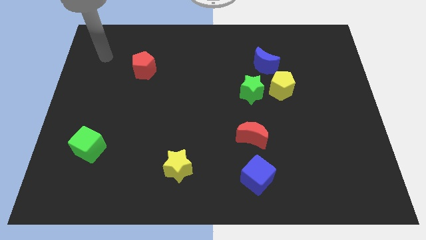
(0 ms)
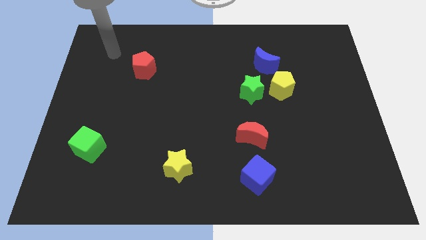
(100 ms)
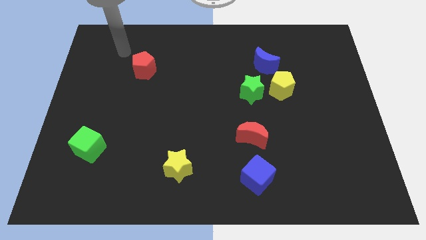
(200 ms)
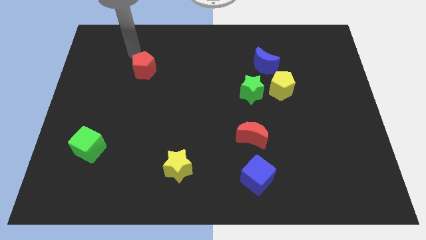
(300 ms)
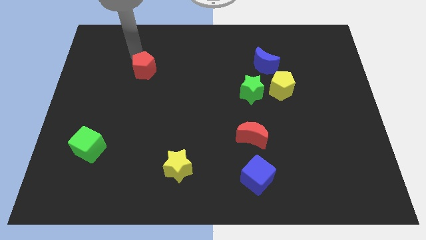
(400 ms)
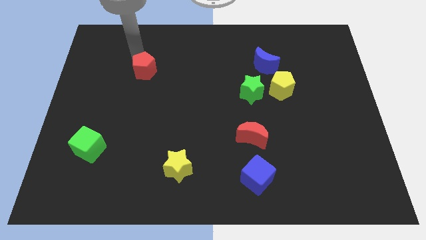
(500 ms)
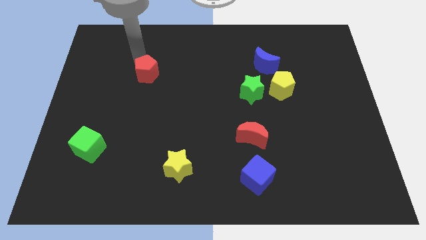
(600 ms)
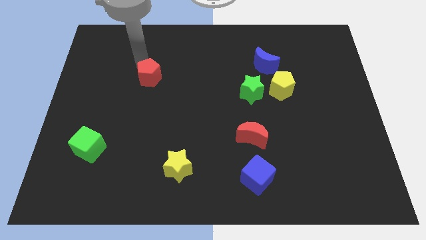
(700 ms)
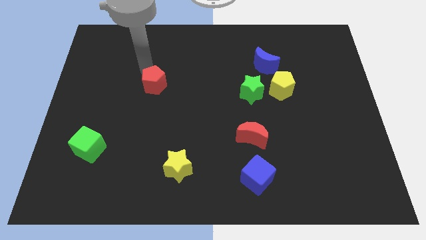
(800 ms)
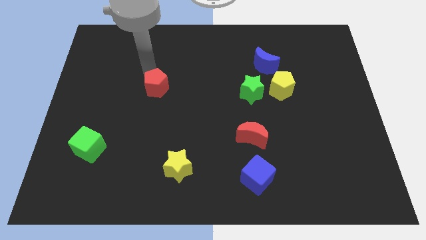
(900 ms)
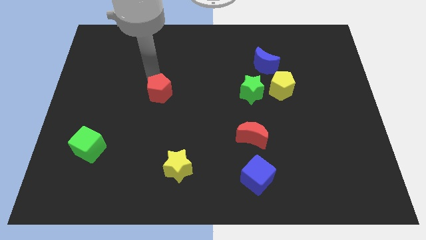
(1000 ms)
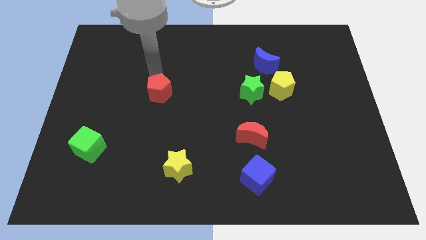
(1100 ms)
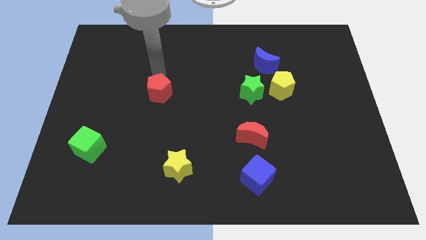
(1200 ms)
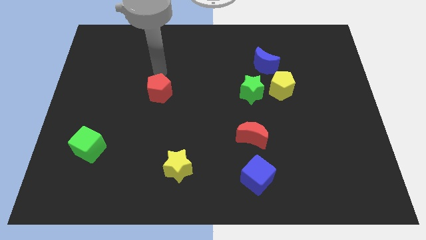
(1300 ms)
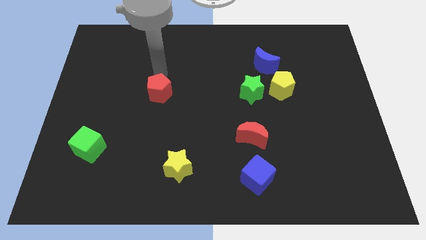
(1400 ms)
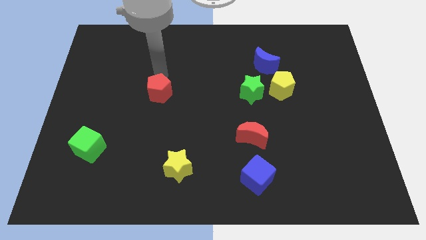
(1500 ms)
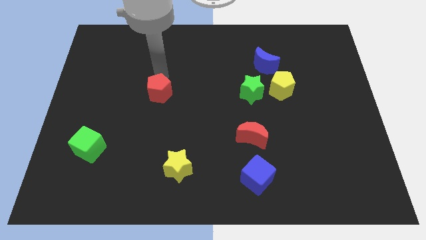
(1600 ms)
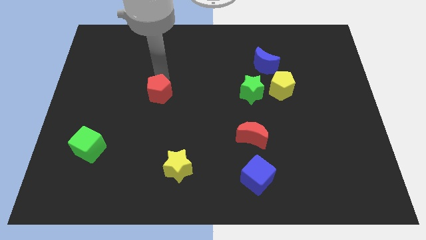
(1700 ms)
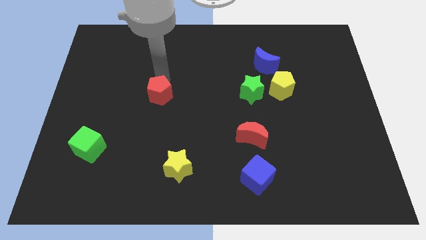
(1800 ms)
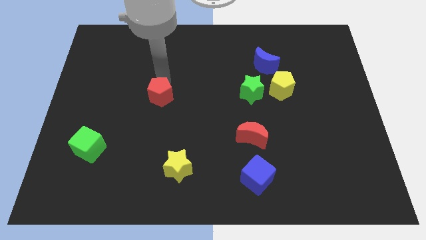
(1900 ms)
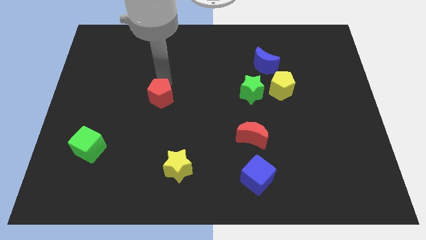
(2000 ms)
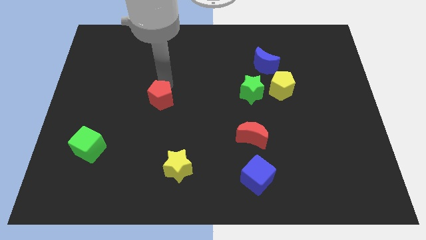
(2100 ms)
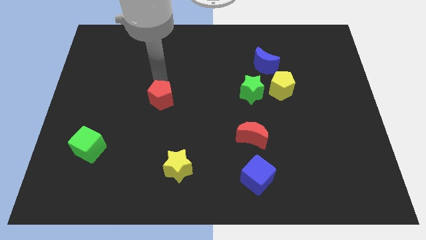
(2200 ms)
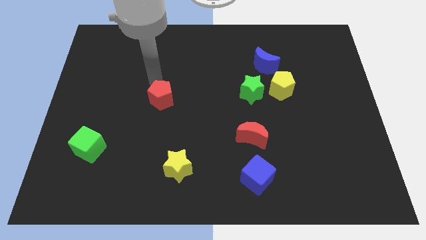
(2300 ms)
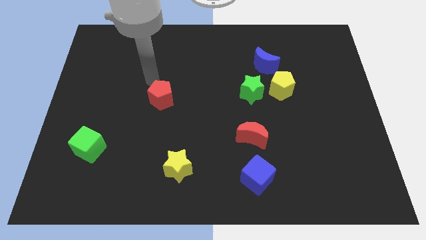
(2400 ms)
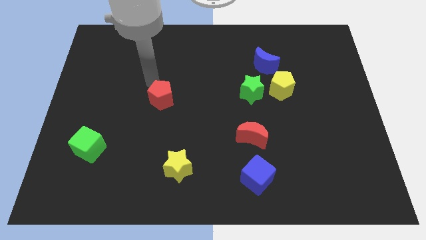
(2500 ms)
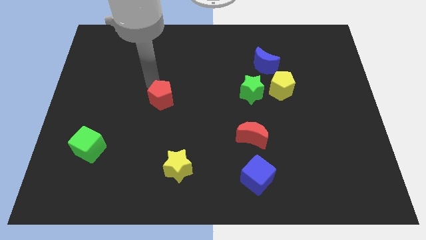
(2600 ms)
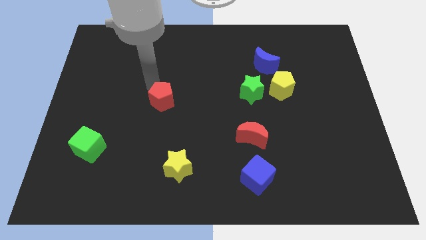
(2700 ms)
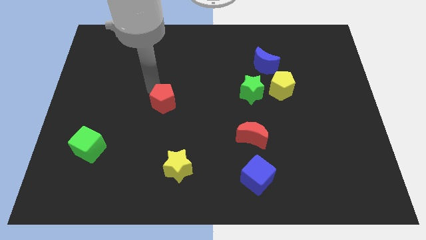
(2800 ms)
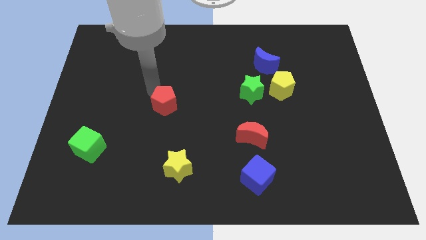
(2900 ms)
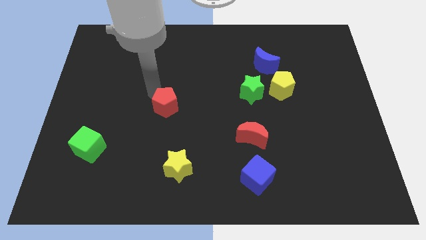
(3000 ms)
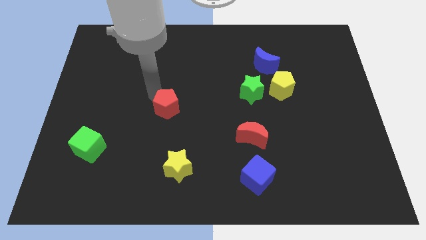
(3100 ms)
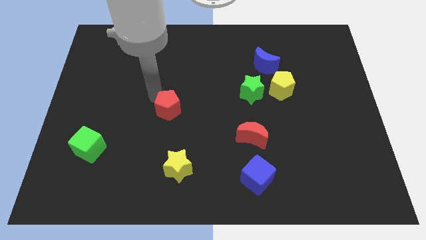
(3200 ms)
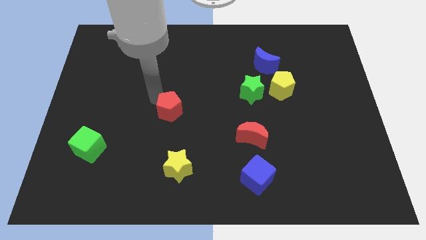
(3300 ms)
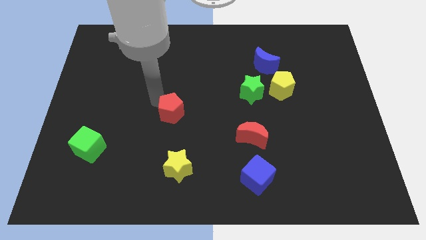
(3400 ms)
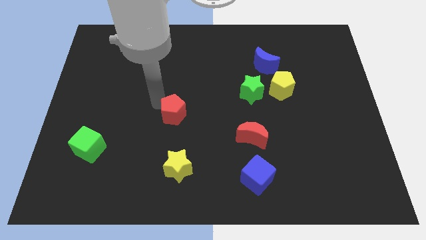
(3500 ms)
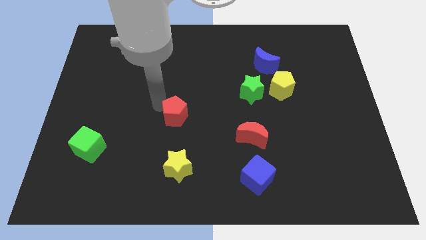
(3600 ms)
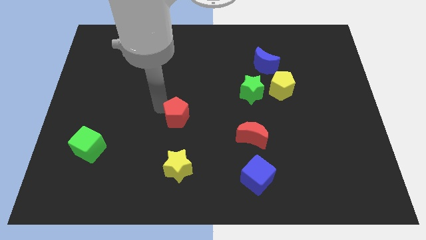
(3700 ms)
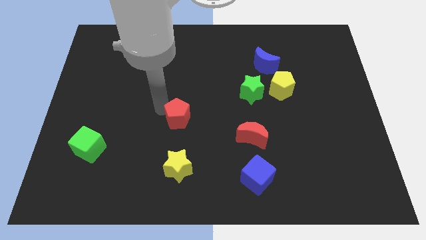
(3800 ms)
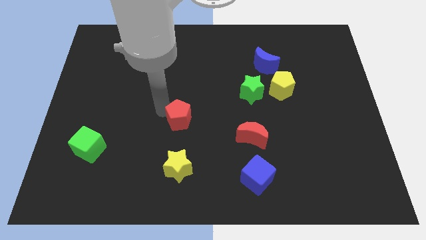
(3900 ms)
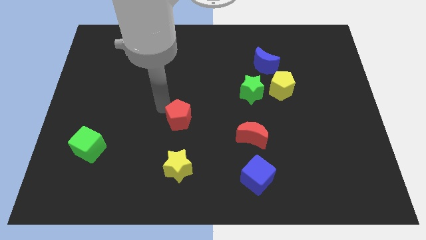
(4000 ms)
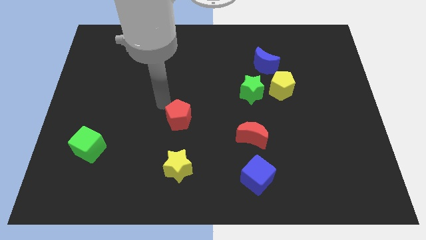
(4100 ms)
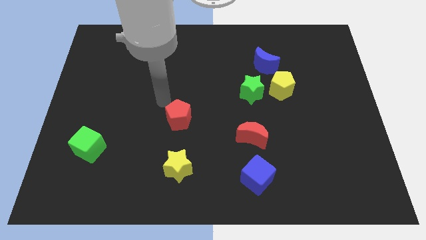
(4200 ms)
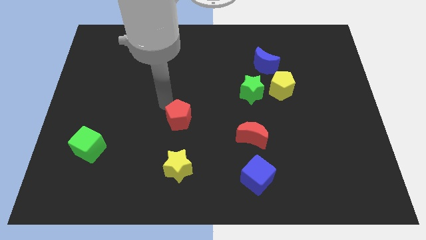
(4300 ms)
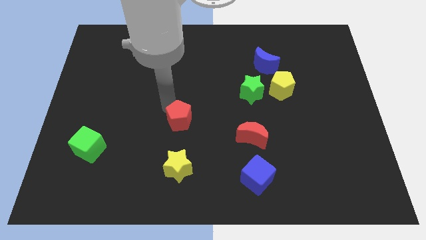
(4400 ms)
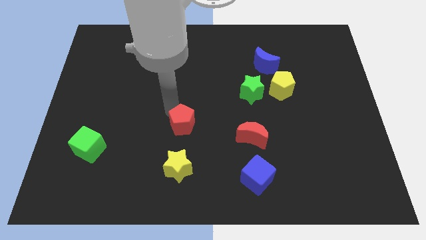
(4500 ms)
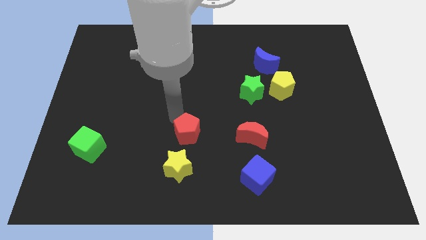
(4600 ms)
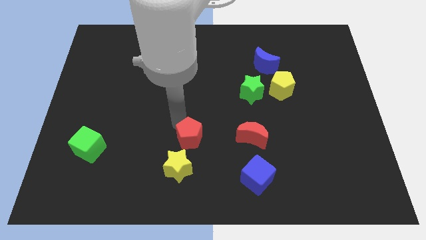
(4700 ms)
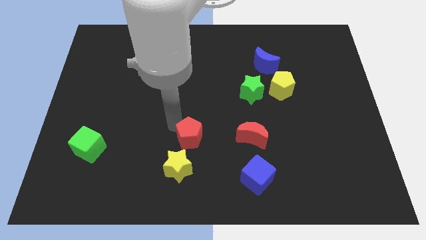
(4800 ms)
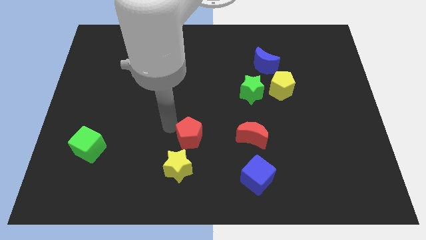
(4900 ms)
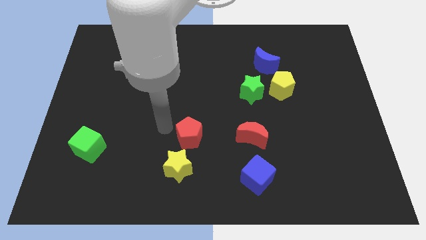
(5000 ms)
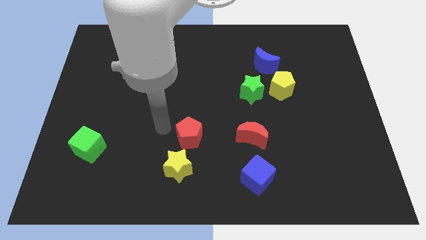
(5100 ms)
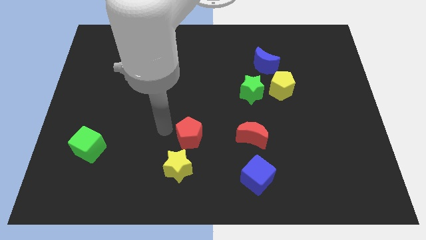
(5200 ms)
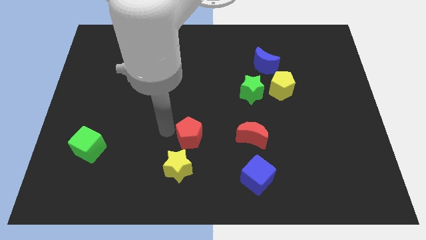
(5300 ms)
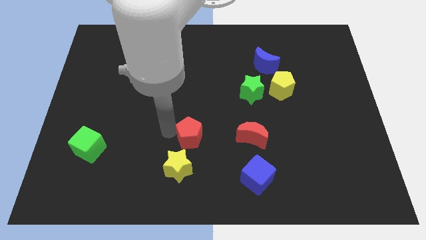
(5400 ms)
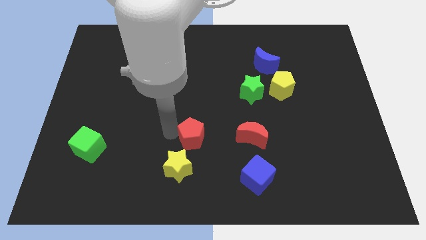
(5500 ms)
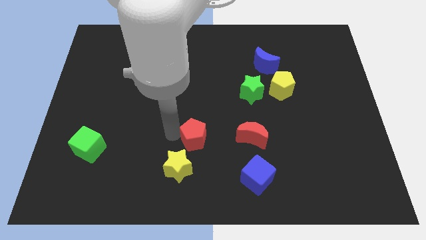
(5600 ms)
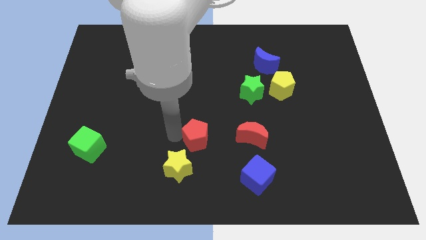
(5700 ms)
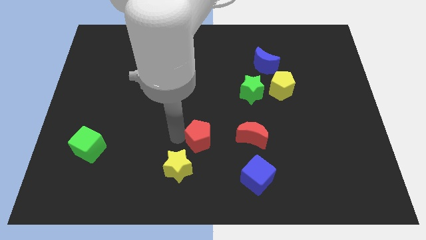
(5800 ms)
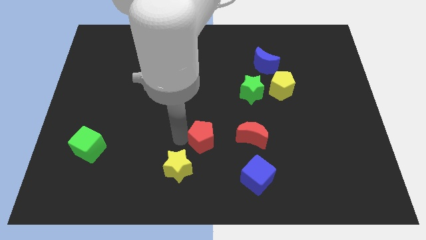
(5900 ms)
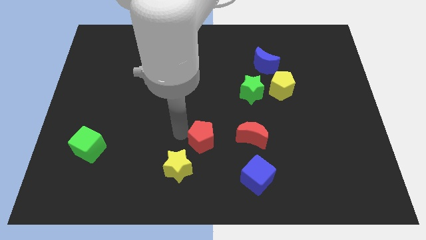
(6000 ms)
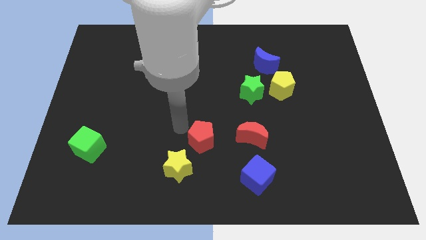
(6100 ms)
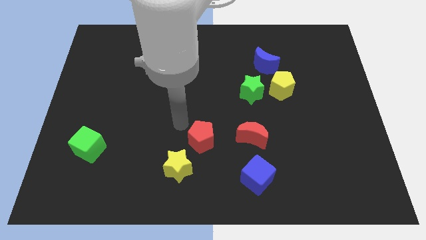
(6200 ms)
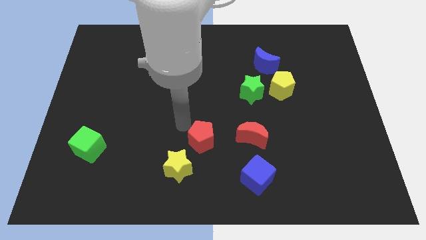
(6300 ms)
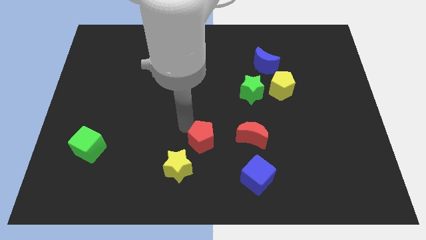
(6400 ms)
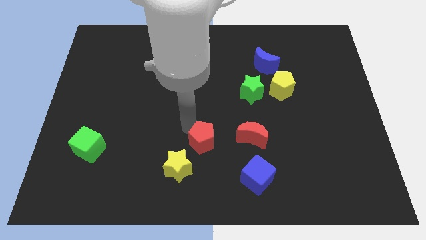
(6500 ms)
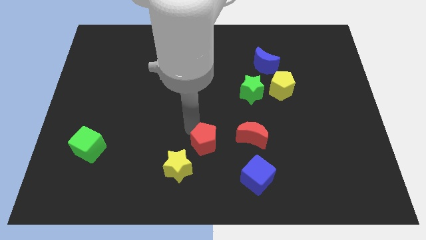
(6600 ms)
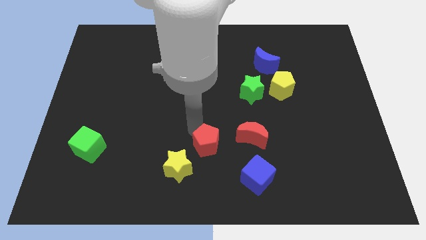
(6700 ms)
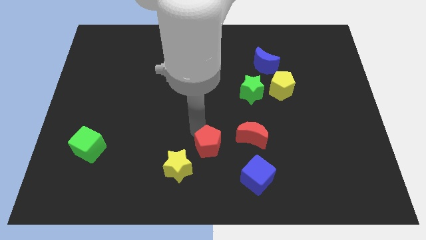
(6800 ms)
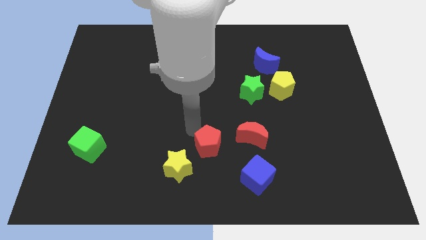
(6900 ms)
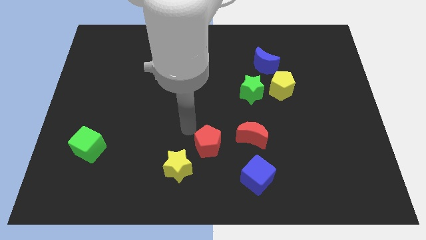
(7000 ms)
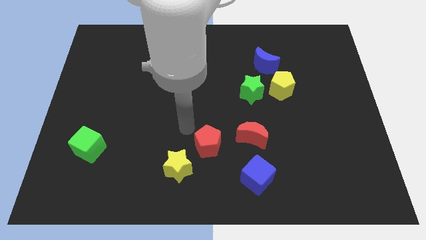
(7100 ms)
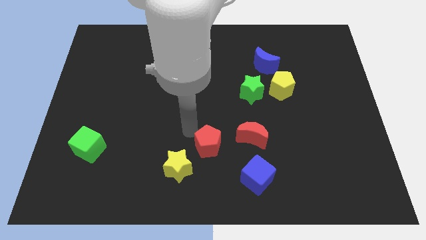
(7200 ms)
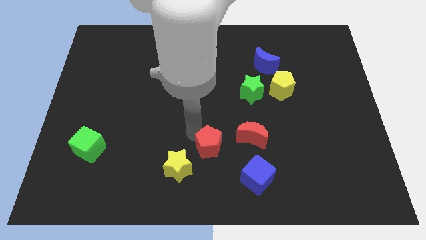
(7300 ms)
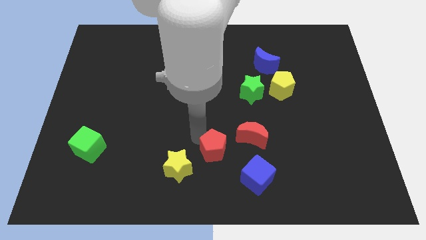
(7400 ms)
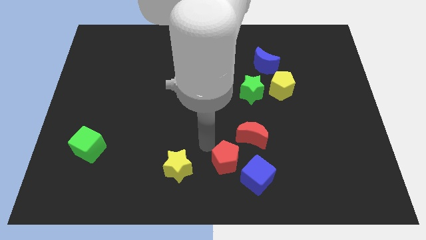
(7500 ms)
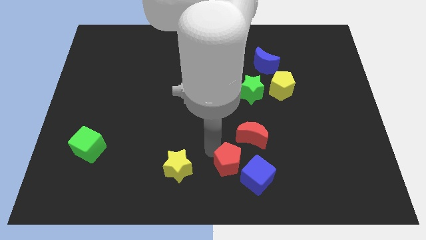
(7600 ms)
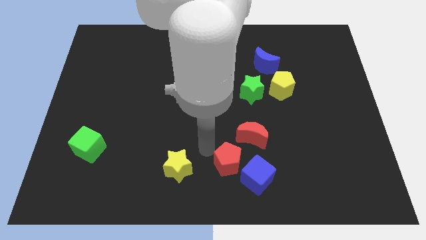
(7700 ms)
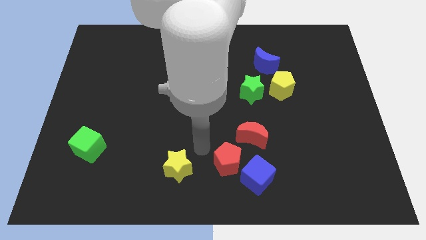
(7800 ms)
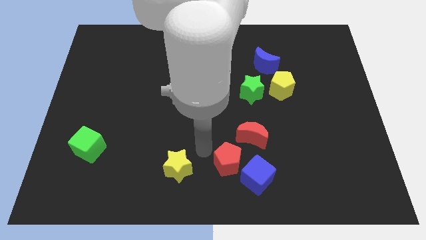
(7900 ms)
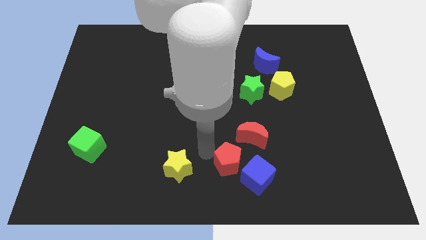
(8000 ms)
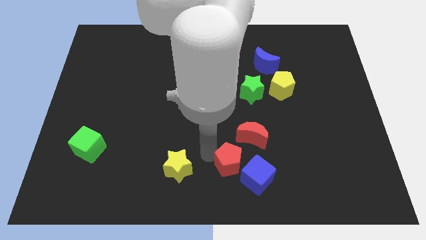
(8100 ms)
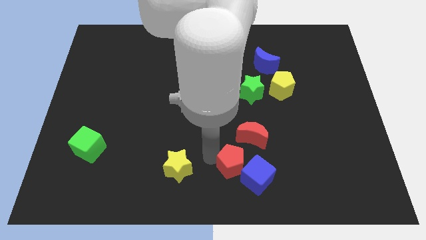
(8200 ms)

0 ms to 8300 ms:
slide the red pentagon to the blue cube
